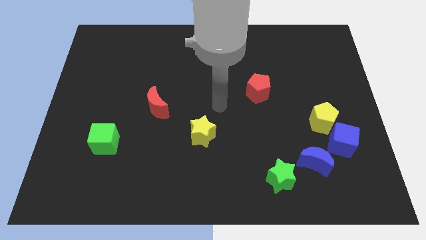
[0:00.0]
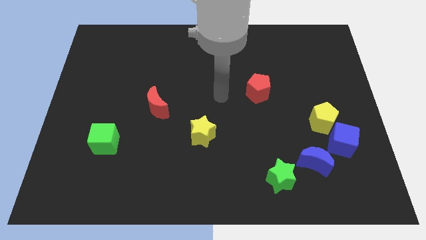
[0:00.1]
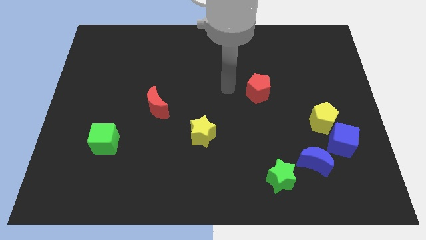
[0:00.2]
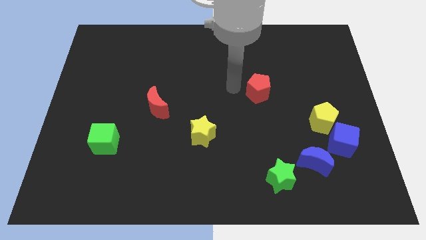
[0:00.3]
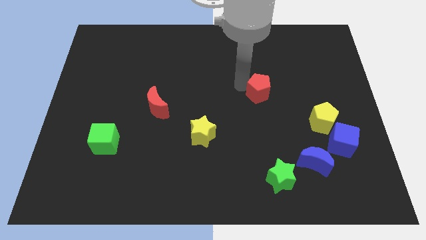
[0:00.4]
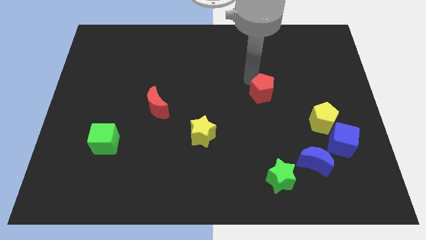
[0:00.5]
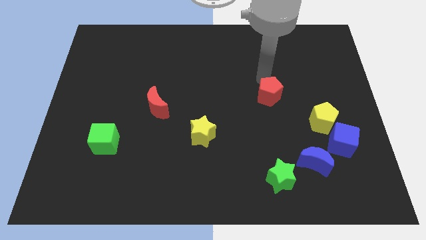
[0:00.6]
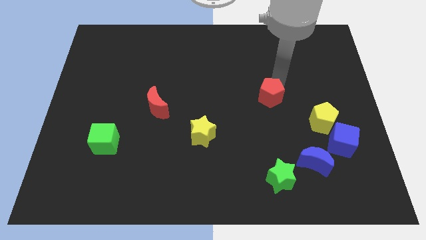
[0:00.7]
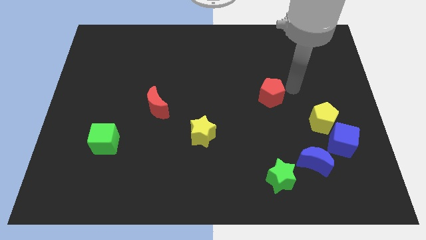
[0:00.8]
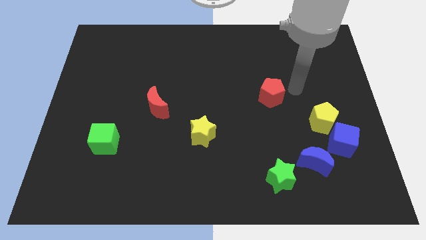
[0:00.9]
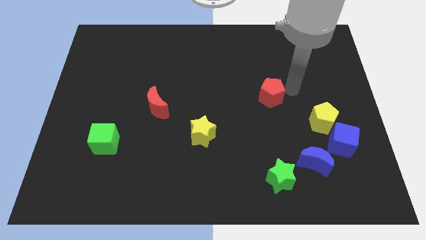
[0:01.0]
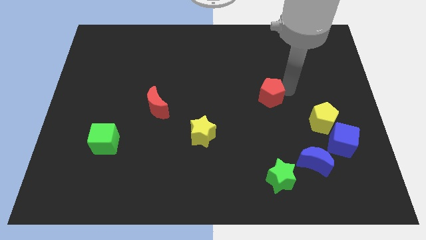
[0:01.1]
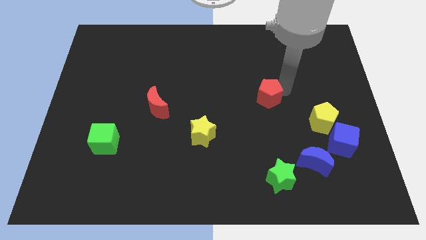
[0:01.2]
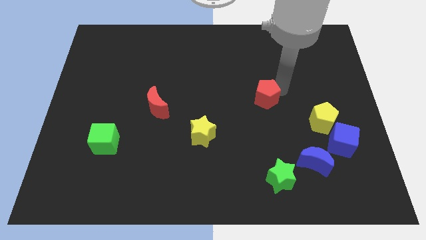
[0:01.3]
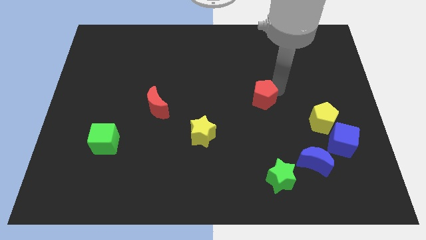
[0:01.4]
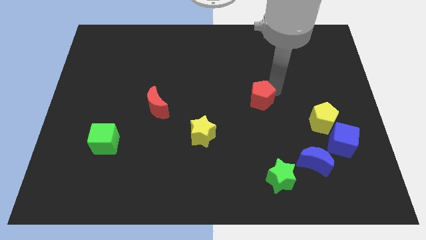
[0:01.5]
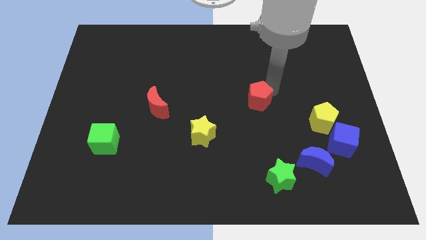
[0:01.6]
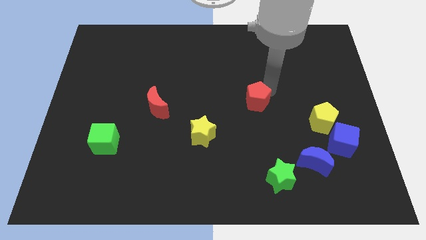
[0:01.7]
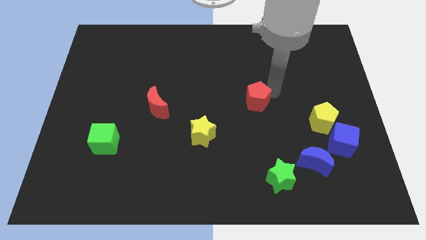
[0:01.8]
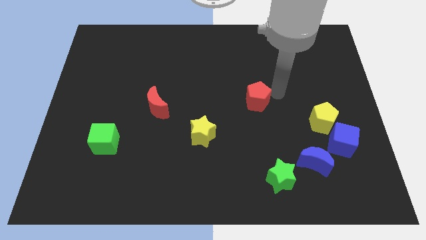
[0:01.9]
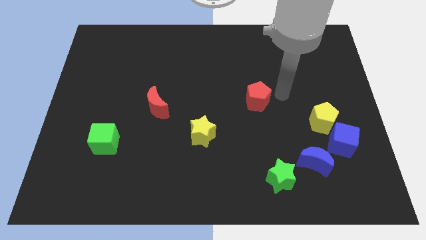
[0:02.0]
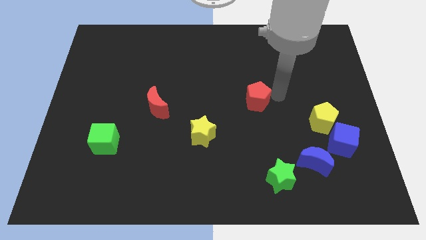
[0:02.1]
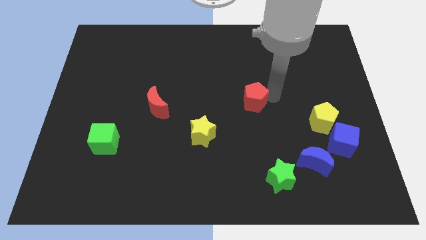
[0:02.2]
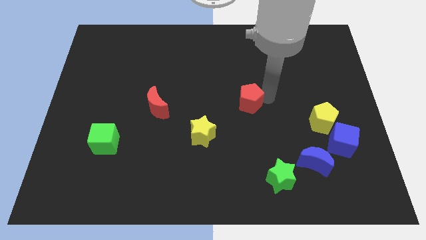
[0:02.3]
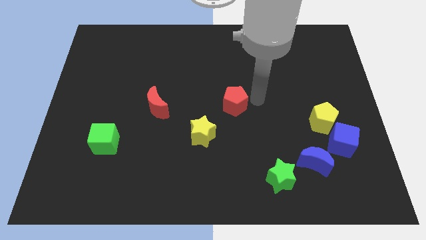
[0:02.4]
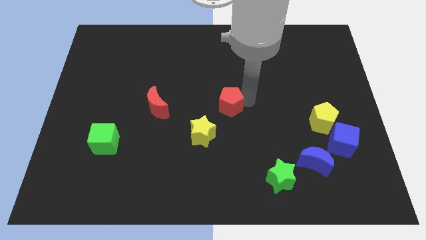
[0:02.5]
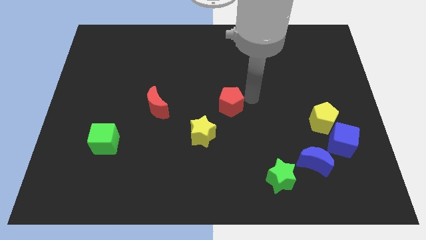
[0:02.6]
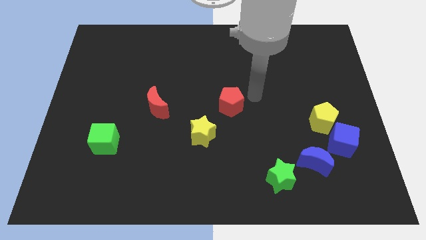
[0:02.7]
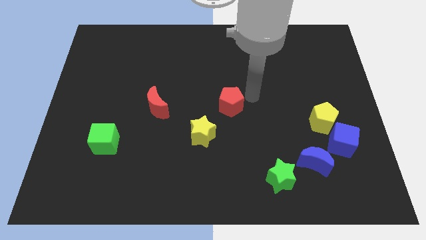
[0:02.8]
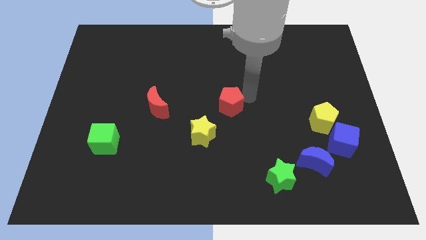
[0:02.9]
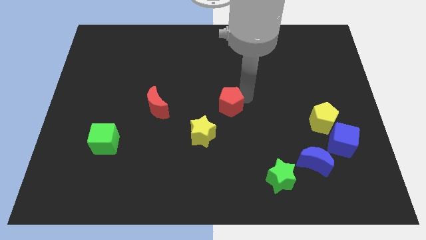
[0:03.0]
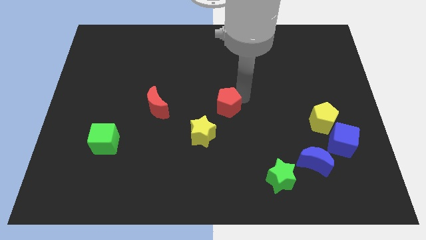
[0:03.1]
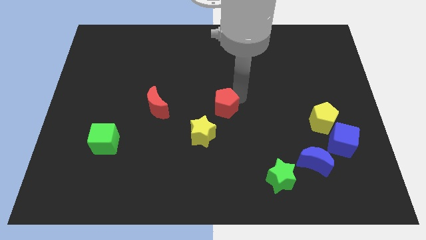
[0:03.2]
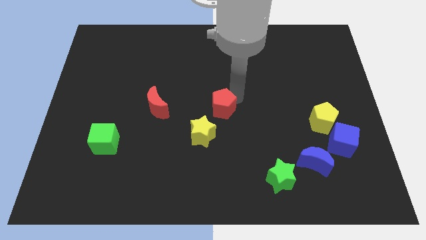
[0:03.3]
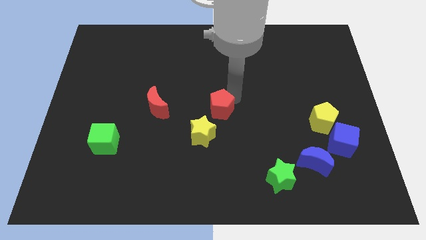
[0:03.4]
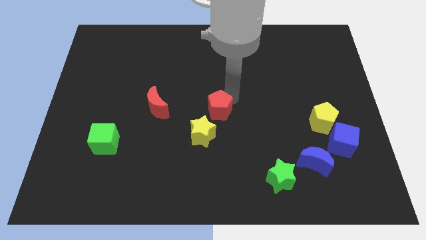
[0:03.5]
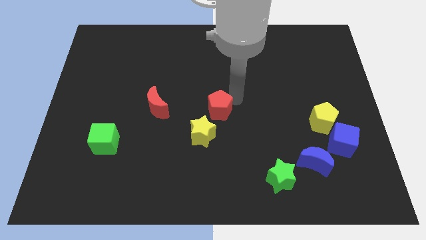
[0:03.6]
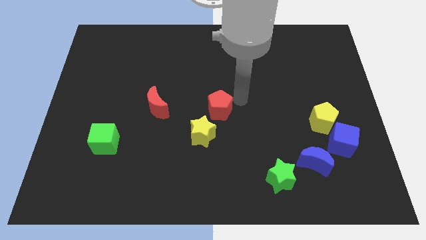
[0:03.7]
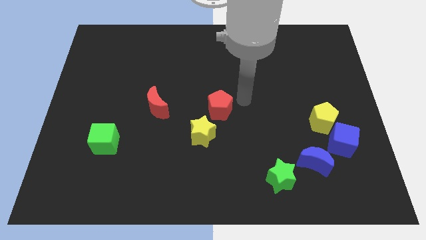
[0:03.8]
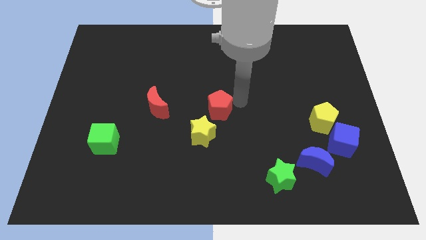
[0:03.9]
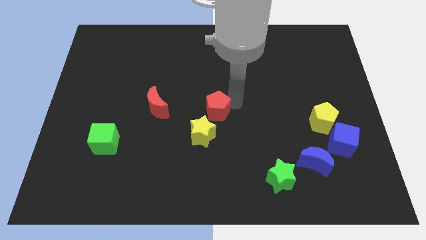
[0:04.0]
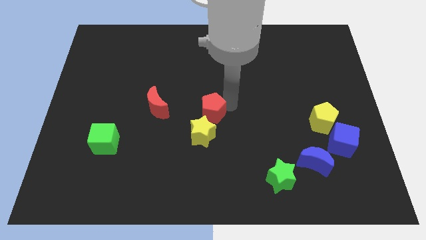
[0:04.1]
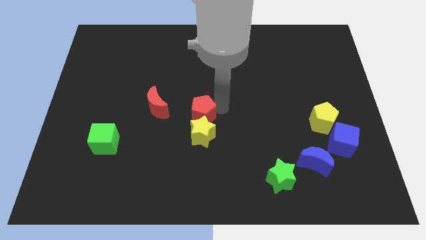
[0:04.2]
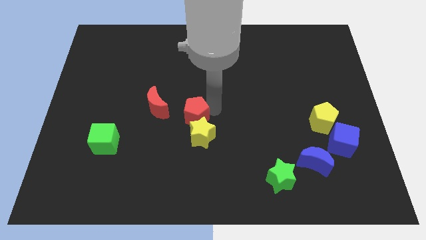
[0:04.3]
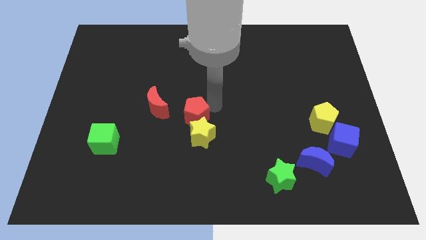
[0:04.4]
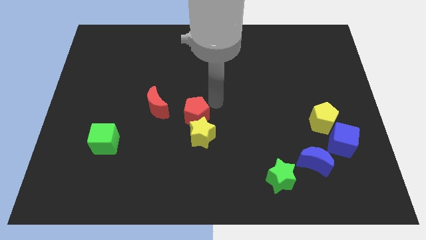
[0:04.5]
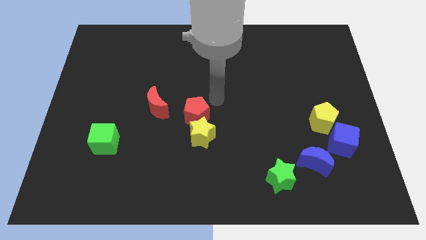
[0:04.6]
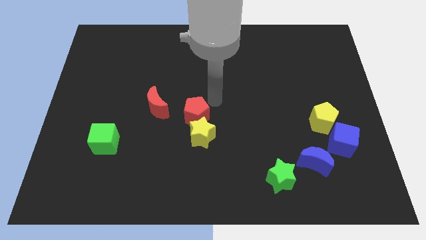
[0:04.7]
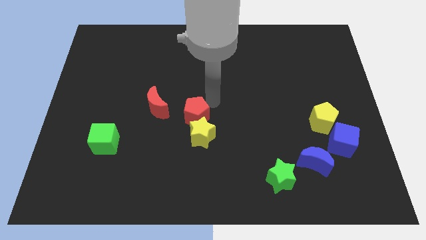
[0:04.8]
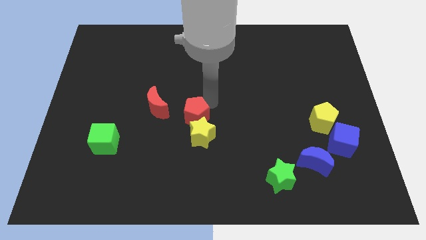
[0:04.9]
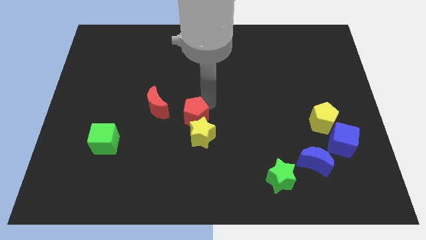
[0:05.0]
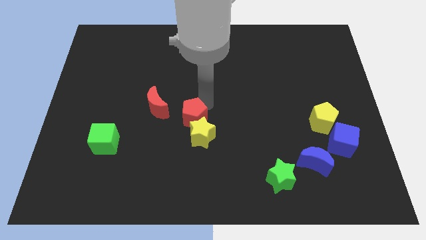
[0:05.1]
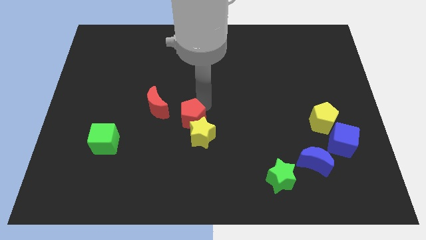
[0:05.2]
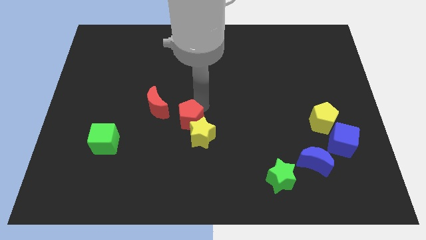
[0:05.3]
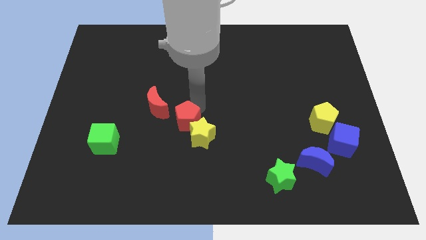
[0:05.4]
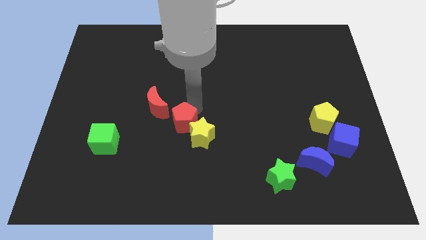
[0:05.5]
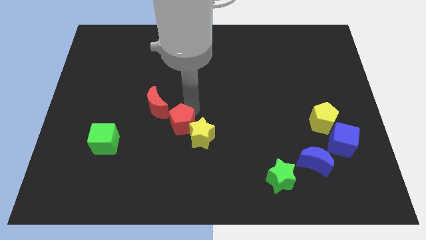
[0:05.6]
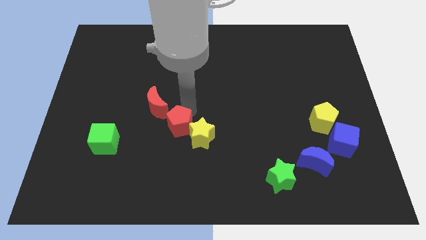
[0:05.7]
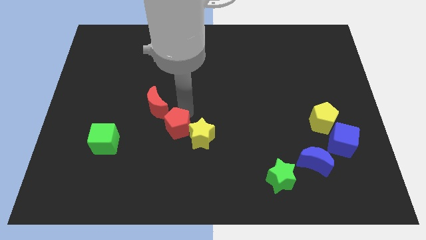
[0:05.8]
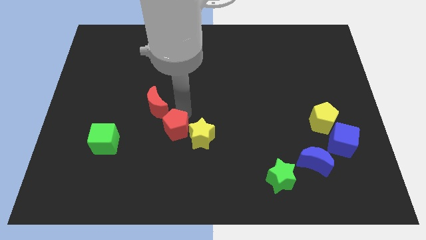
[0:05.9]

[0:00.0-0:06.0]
move the red pentagon down and then left

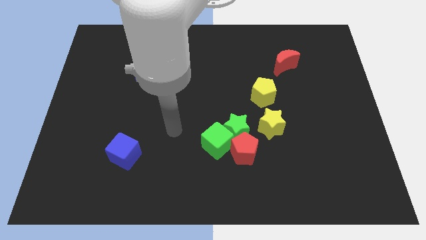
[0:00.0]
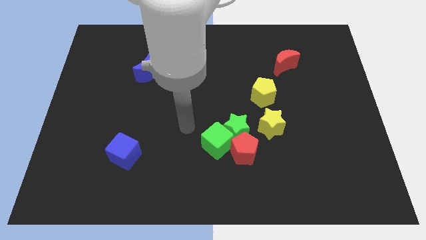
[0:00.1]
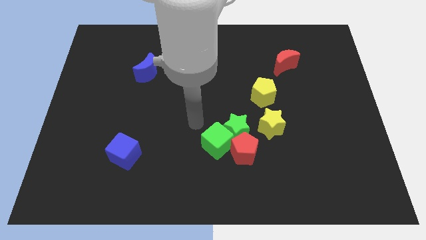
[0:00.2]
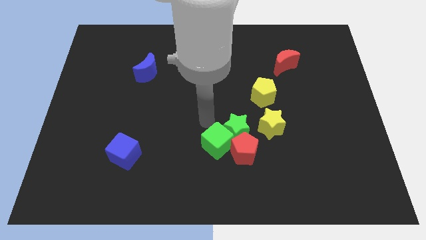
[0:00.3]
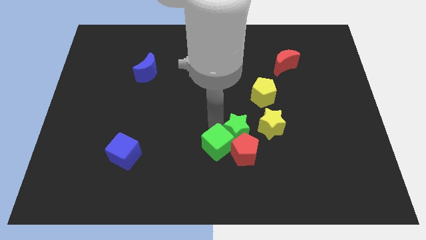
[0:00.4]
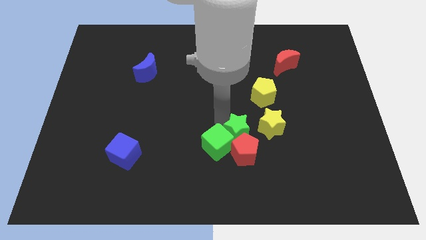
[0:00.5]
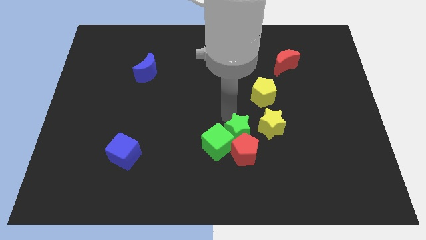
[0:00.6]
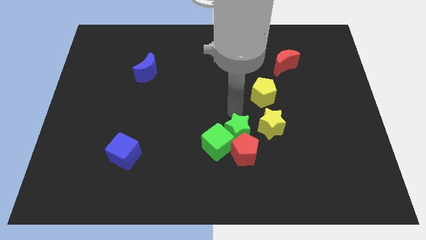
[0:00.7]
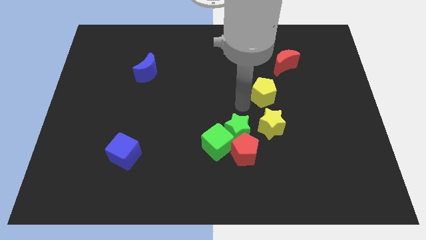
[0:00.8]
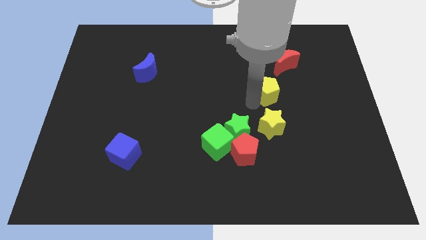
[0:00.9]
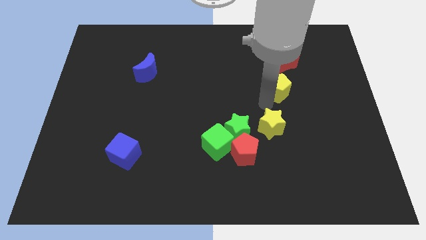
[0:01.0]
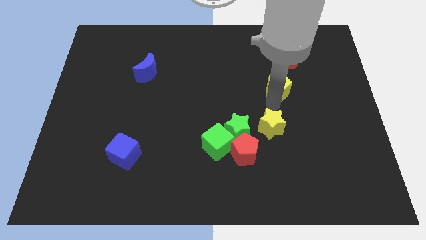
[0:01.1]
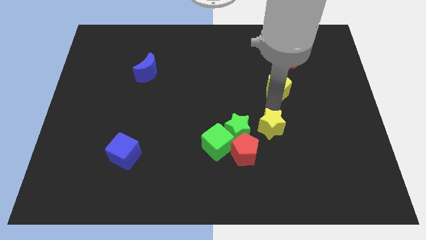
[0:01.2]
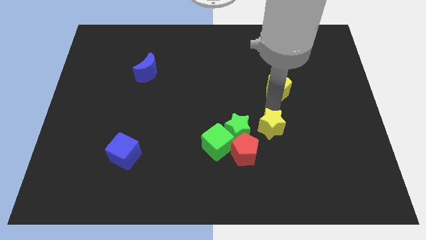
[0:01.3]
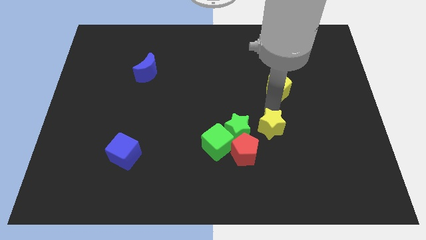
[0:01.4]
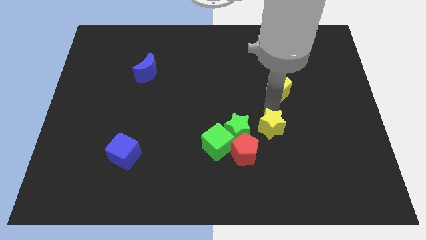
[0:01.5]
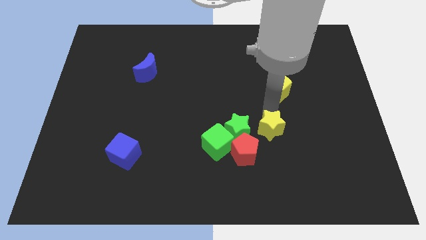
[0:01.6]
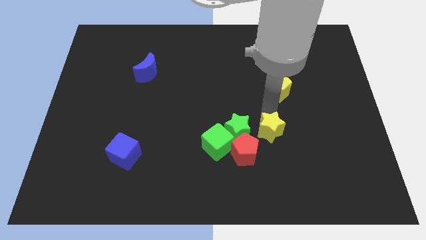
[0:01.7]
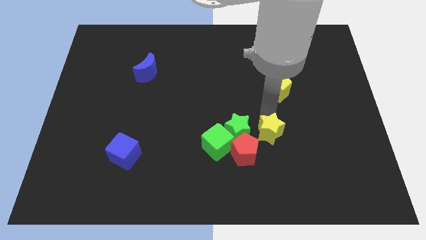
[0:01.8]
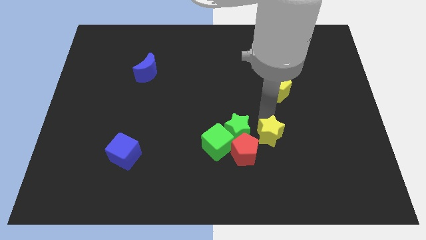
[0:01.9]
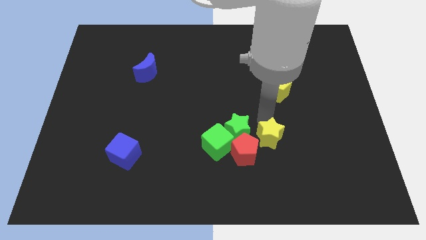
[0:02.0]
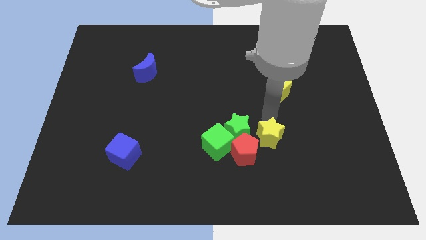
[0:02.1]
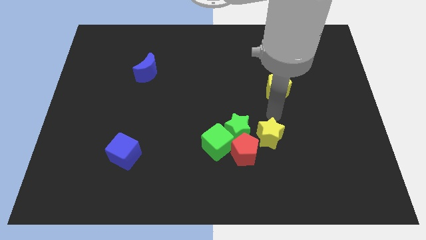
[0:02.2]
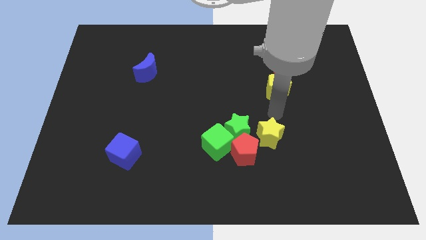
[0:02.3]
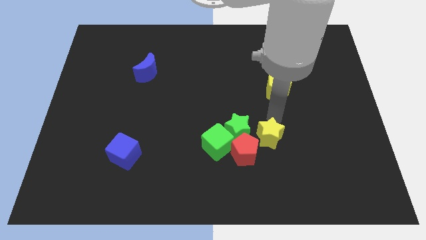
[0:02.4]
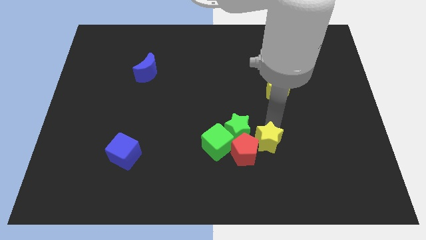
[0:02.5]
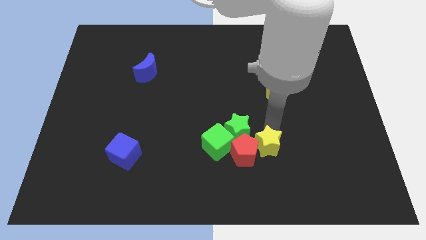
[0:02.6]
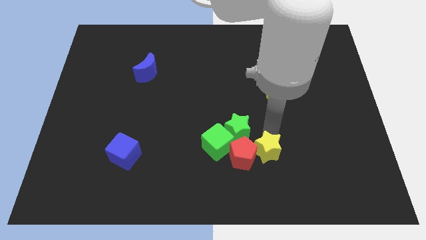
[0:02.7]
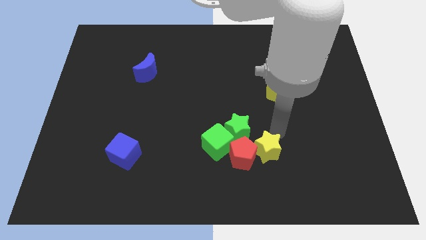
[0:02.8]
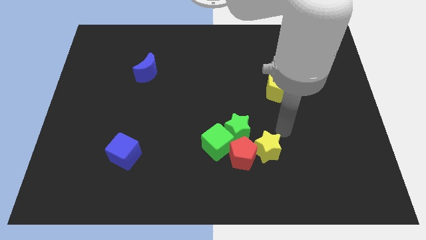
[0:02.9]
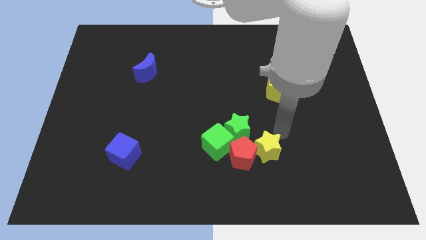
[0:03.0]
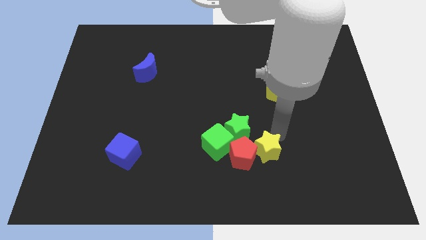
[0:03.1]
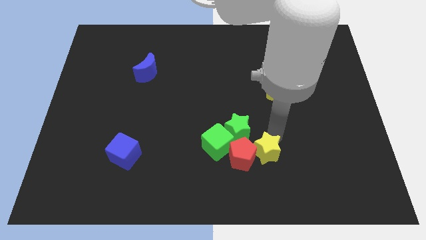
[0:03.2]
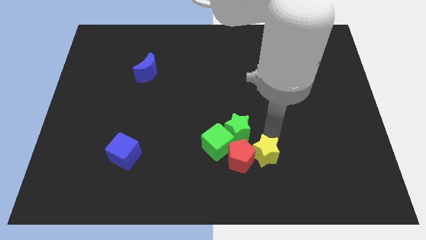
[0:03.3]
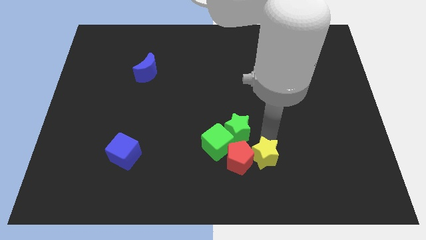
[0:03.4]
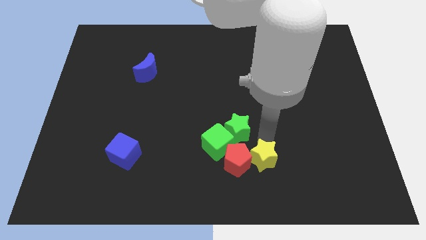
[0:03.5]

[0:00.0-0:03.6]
slightly slide the yellow star downwards and left diagonally
